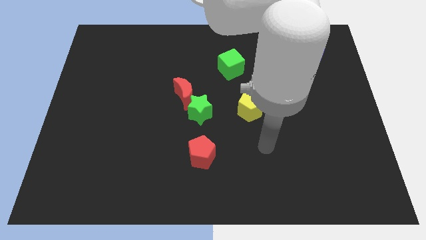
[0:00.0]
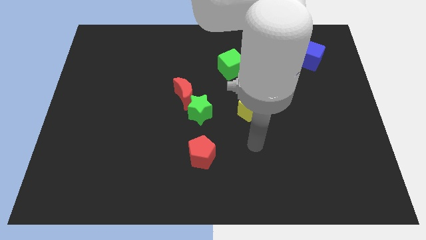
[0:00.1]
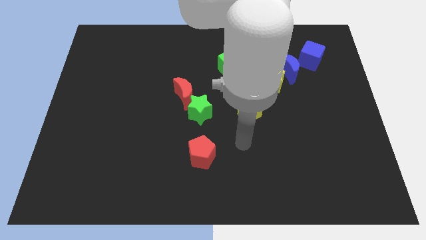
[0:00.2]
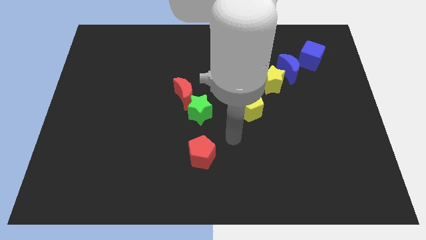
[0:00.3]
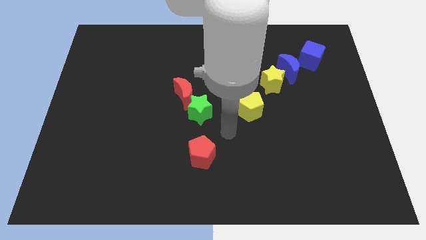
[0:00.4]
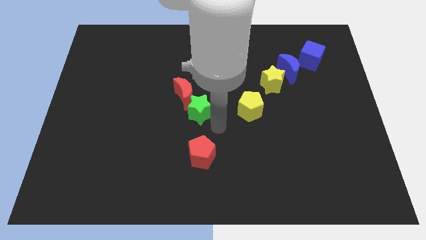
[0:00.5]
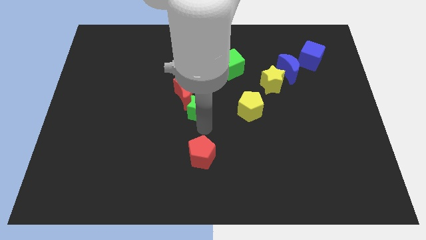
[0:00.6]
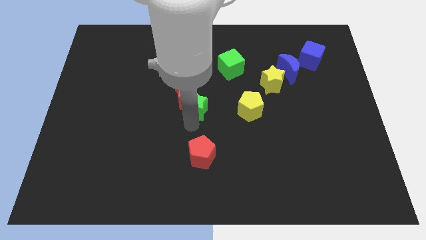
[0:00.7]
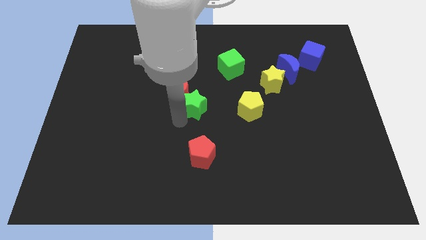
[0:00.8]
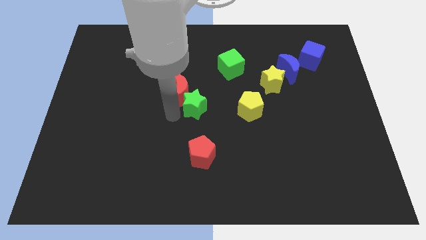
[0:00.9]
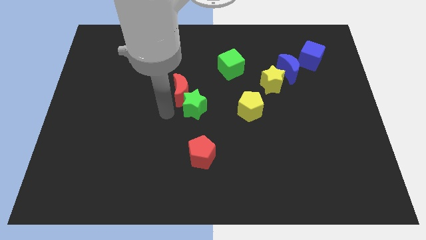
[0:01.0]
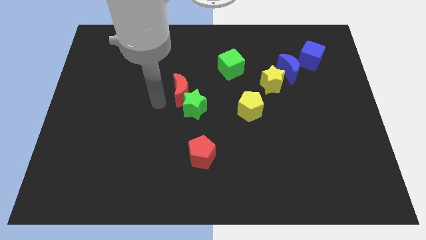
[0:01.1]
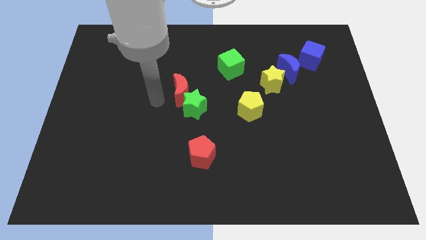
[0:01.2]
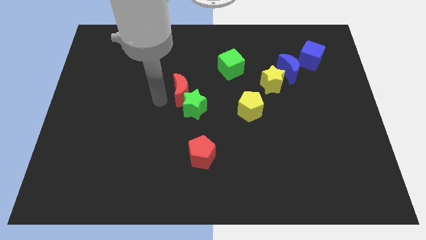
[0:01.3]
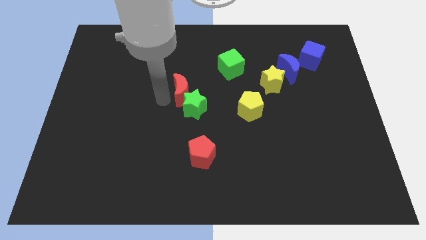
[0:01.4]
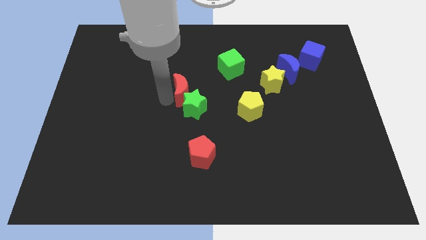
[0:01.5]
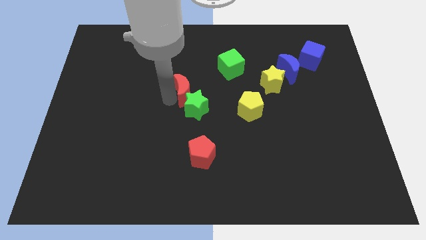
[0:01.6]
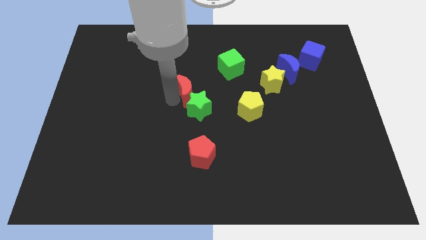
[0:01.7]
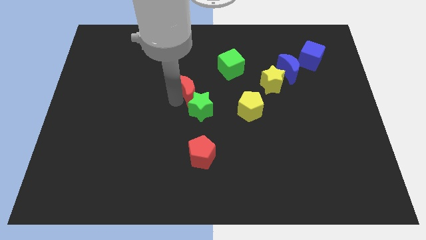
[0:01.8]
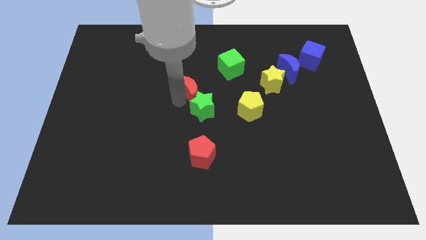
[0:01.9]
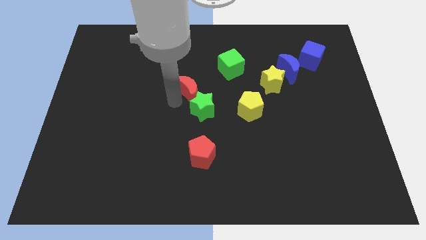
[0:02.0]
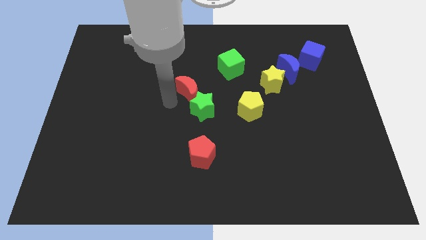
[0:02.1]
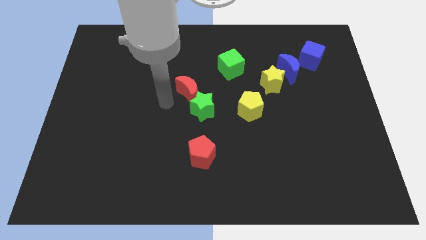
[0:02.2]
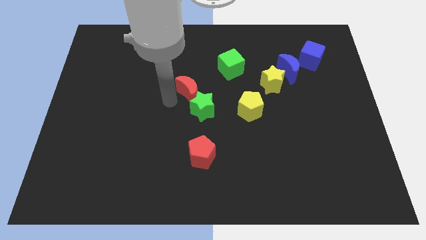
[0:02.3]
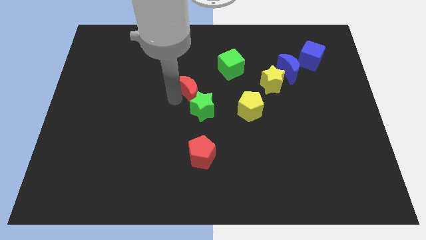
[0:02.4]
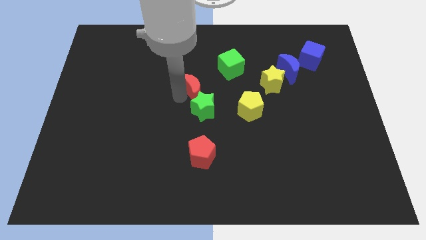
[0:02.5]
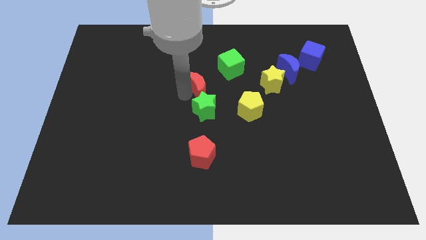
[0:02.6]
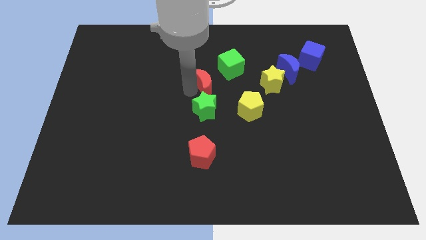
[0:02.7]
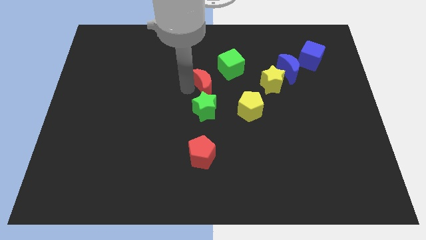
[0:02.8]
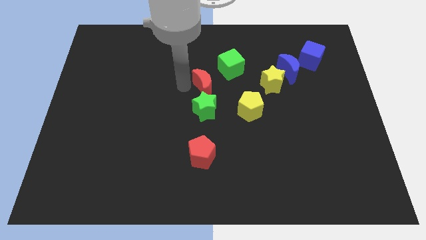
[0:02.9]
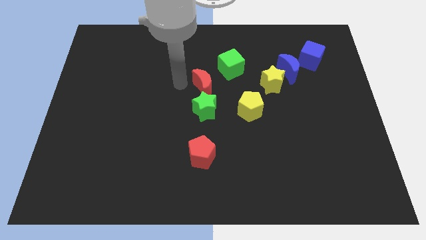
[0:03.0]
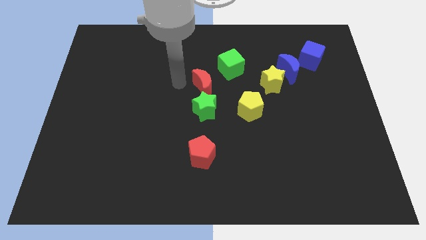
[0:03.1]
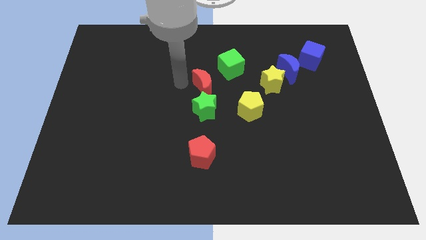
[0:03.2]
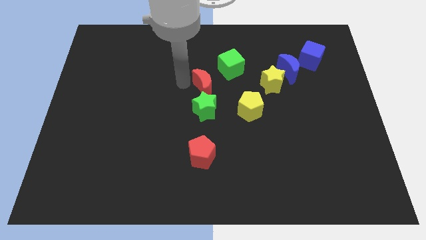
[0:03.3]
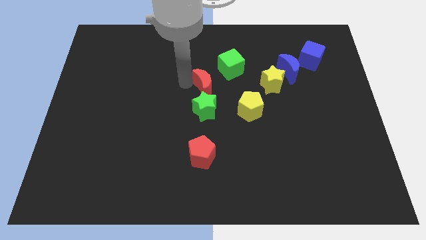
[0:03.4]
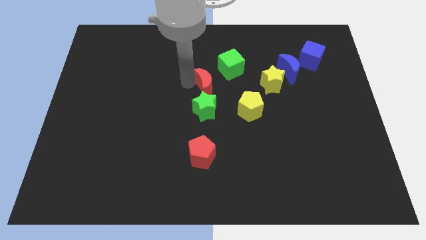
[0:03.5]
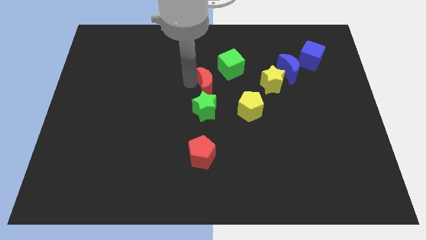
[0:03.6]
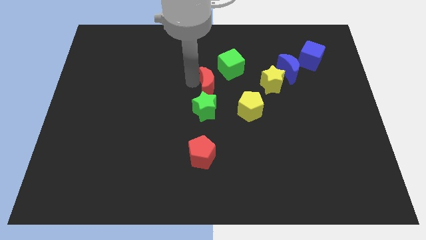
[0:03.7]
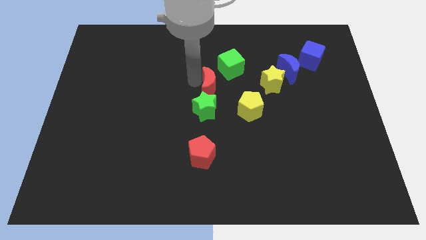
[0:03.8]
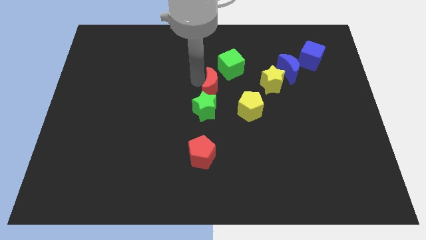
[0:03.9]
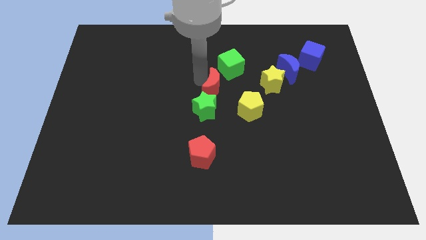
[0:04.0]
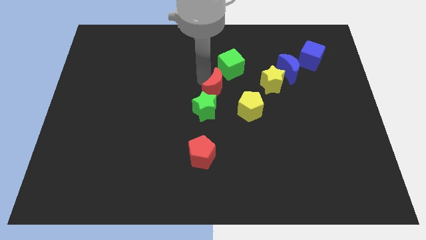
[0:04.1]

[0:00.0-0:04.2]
slide the red moon to the right a little

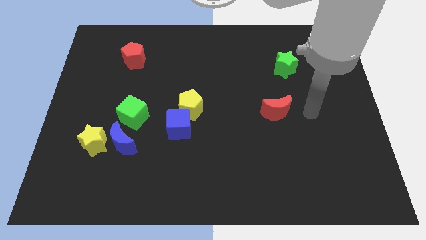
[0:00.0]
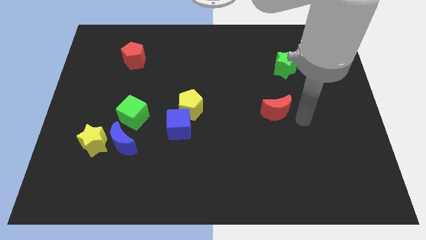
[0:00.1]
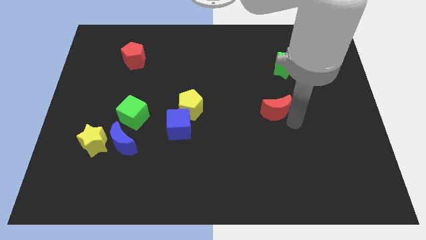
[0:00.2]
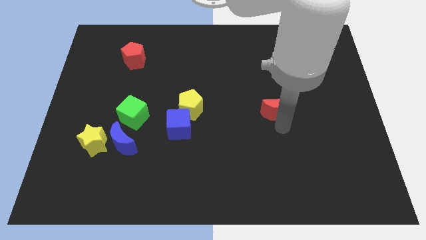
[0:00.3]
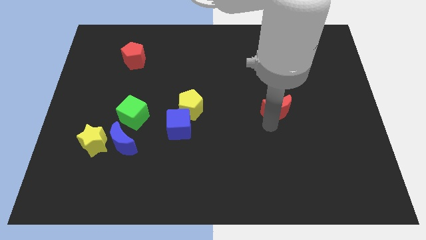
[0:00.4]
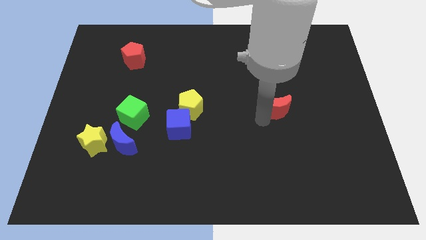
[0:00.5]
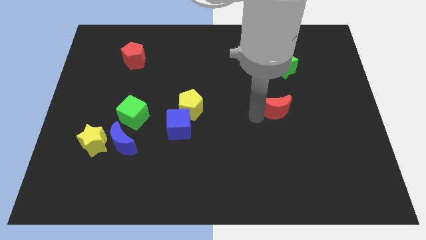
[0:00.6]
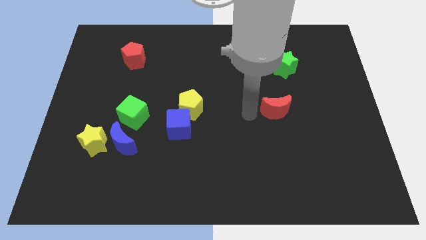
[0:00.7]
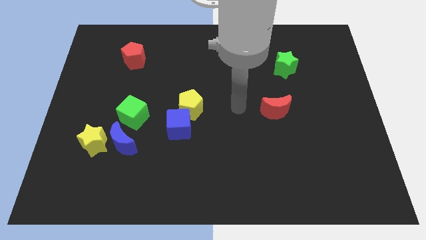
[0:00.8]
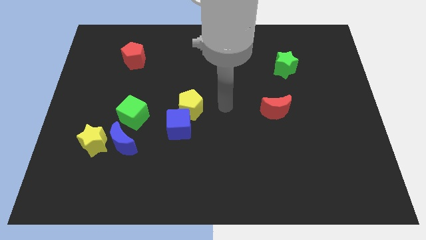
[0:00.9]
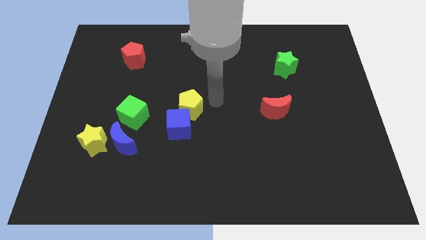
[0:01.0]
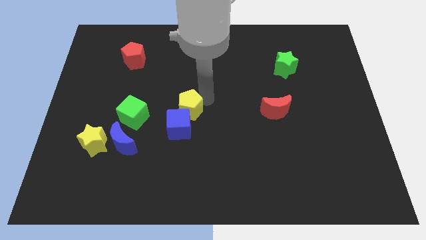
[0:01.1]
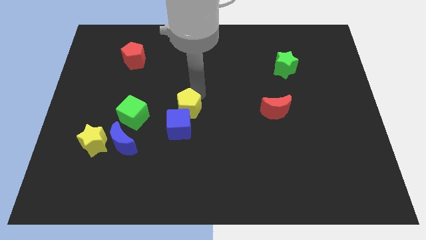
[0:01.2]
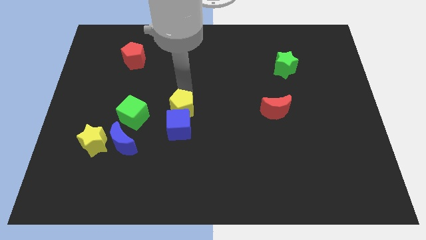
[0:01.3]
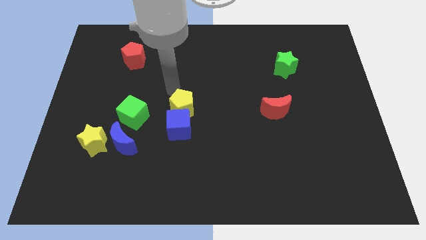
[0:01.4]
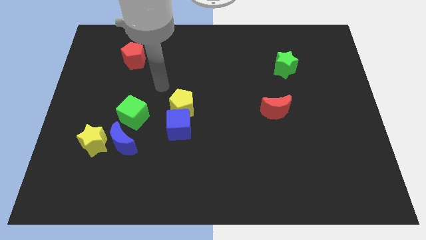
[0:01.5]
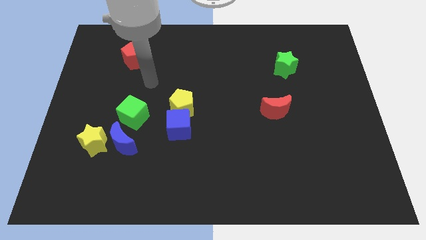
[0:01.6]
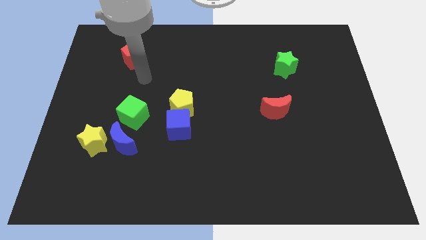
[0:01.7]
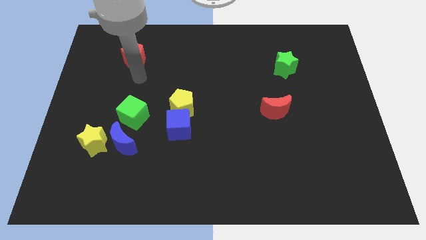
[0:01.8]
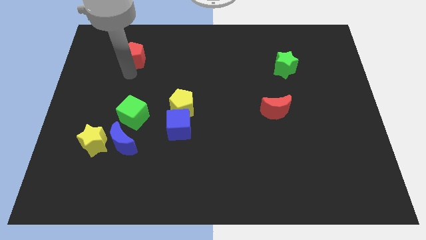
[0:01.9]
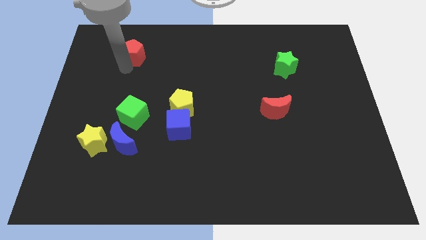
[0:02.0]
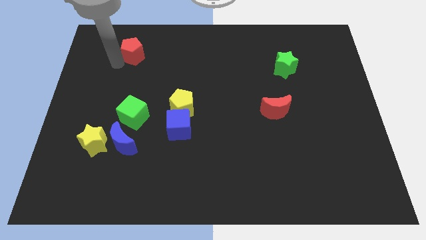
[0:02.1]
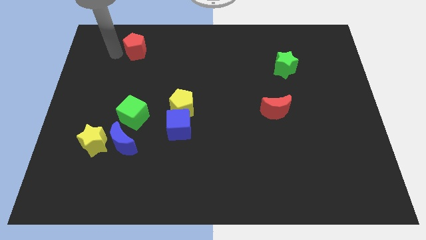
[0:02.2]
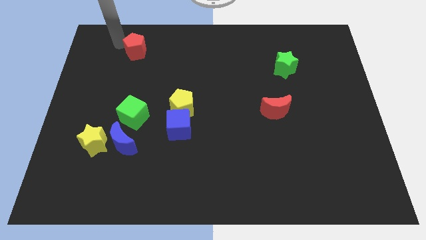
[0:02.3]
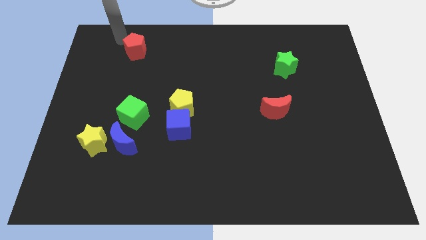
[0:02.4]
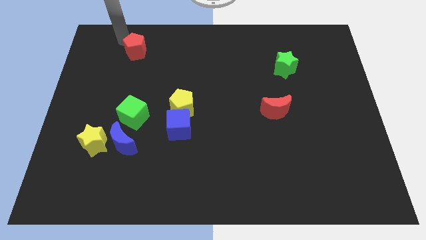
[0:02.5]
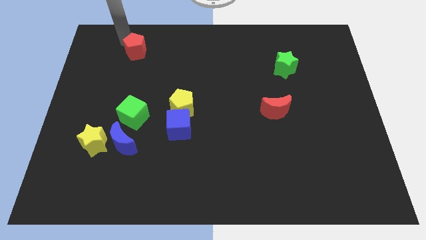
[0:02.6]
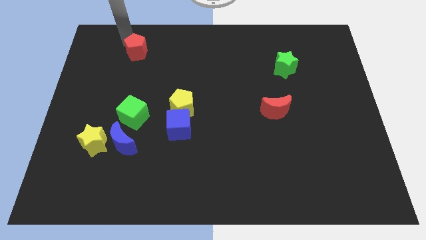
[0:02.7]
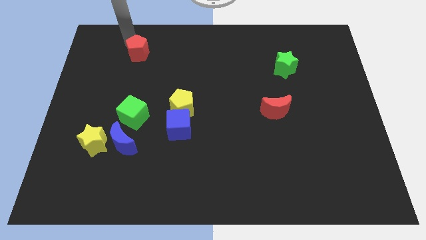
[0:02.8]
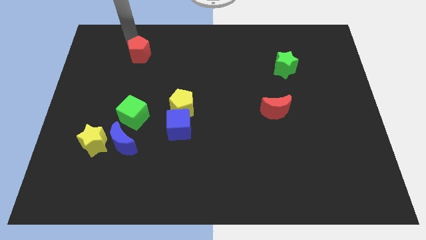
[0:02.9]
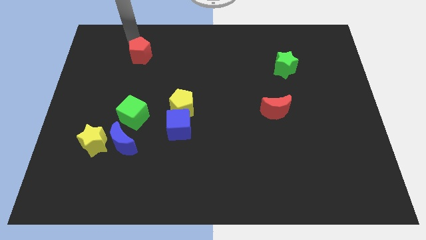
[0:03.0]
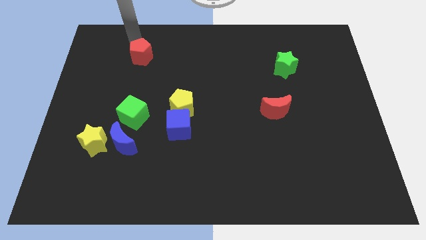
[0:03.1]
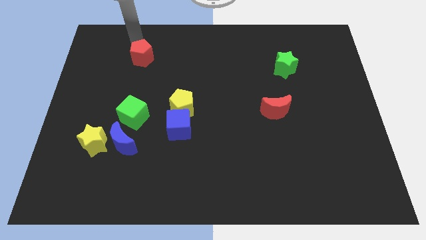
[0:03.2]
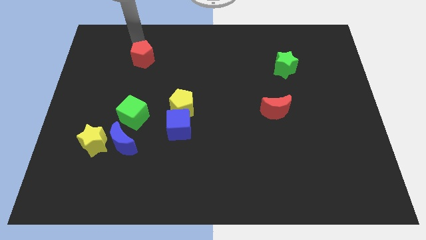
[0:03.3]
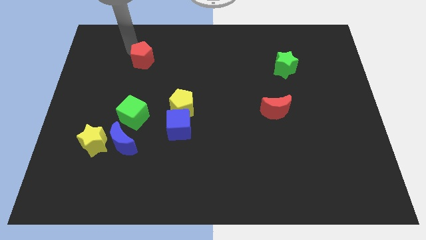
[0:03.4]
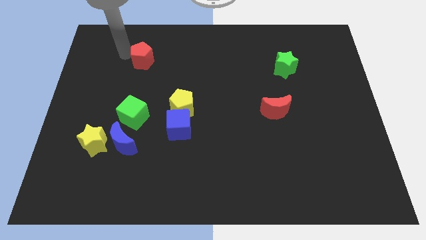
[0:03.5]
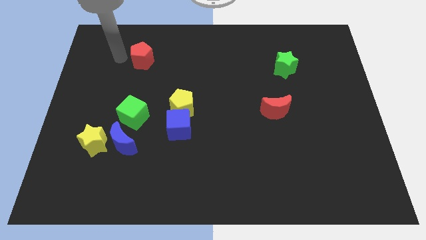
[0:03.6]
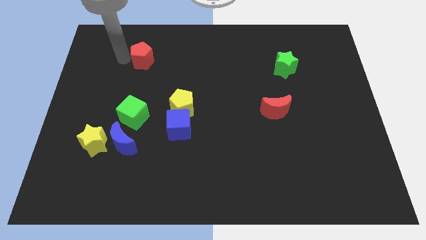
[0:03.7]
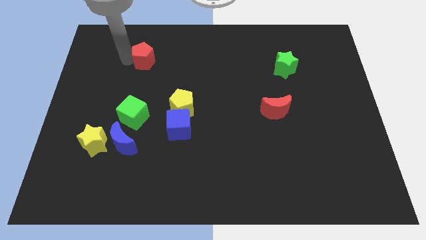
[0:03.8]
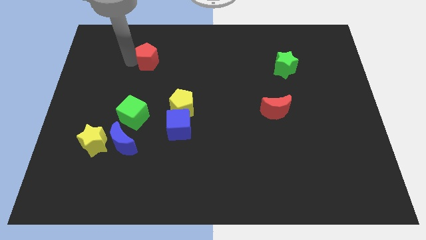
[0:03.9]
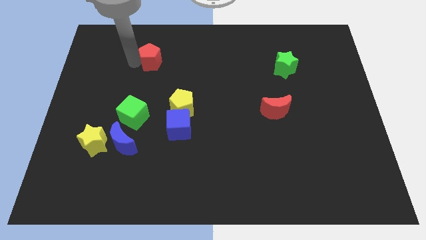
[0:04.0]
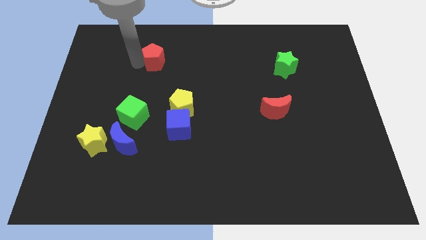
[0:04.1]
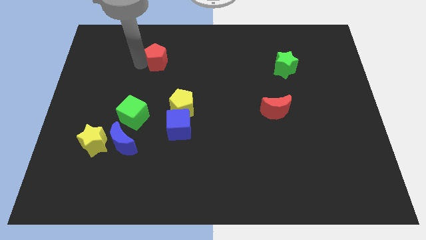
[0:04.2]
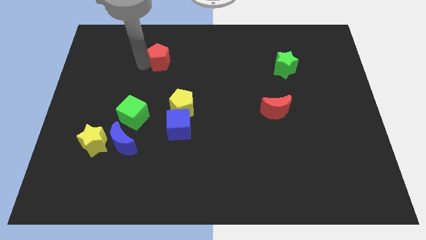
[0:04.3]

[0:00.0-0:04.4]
slightly push the red pentagon to the right
